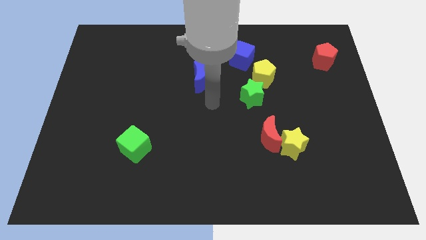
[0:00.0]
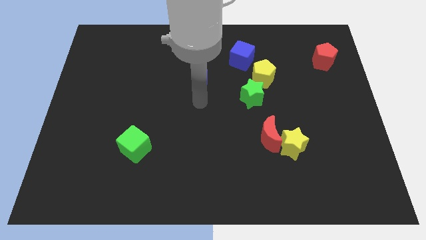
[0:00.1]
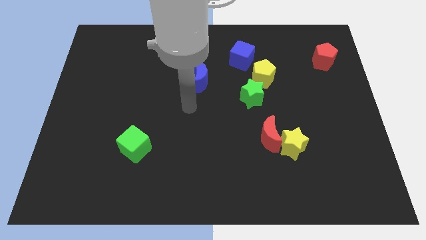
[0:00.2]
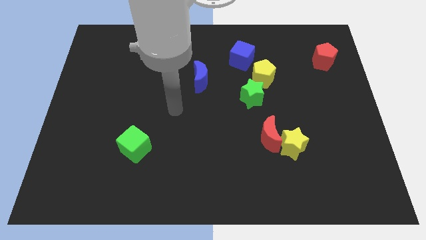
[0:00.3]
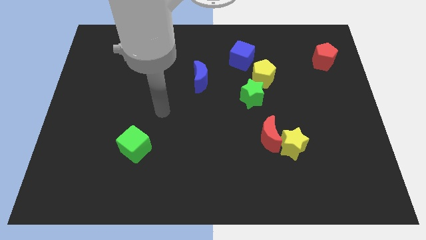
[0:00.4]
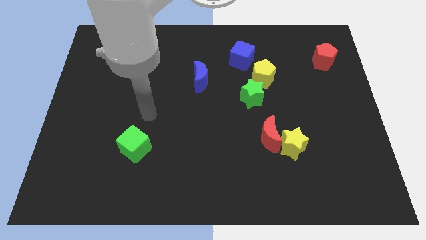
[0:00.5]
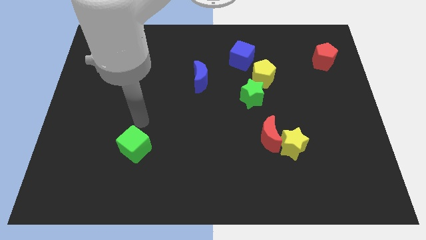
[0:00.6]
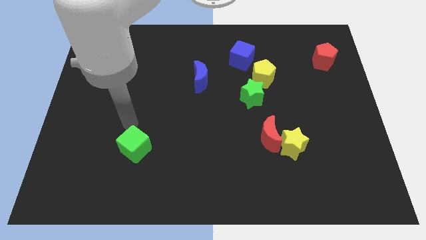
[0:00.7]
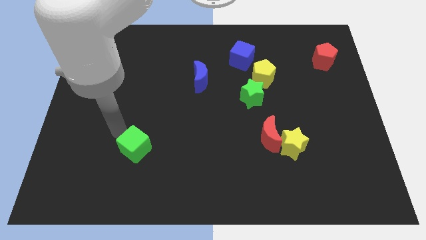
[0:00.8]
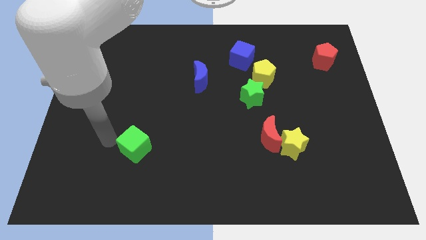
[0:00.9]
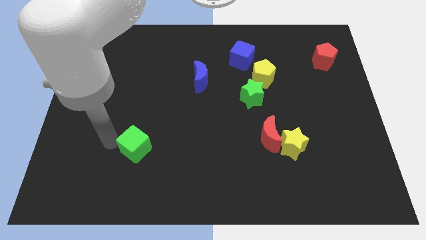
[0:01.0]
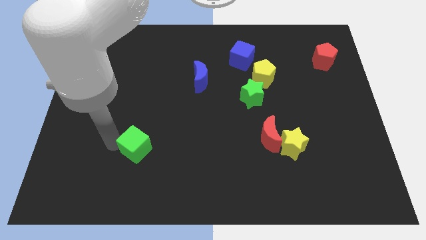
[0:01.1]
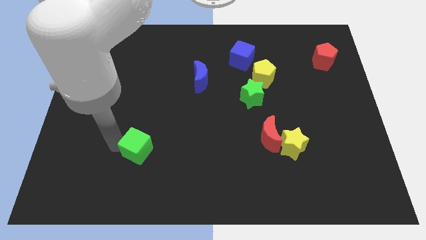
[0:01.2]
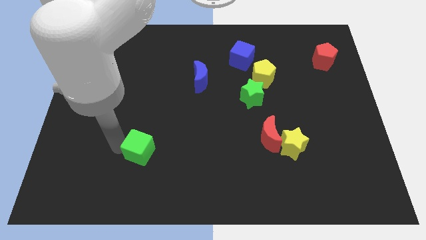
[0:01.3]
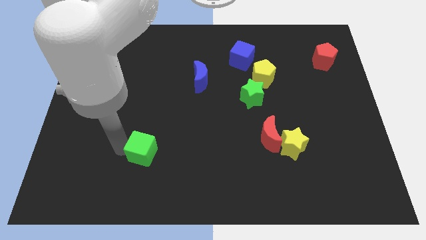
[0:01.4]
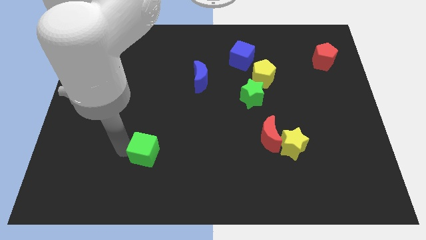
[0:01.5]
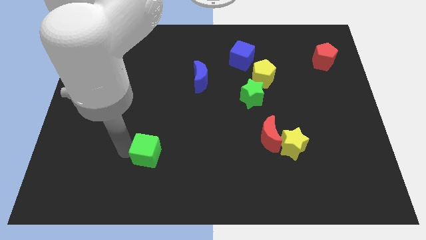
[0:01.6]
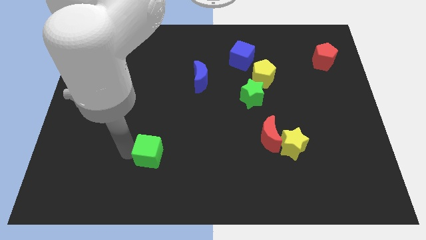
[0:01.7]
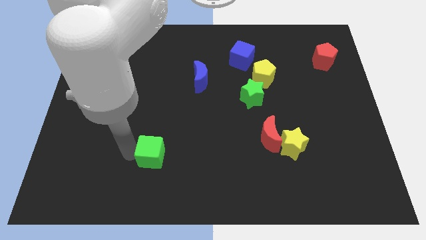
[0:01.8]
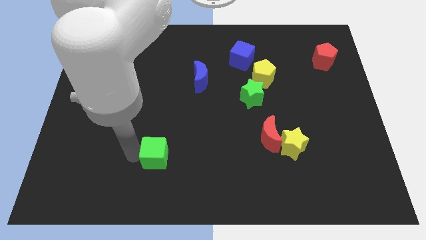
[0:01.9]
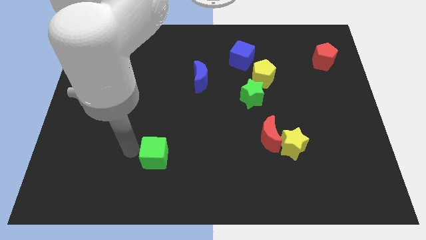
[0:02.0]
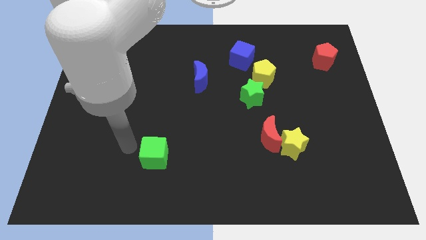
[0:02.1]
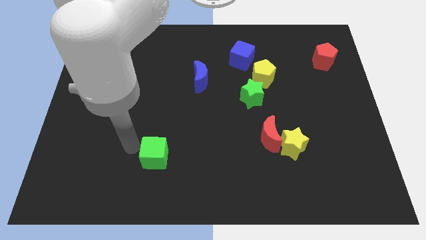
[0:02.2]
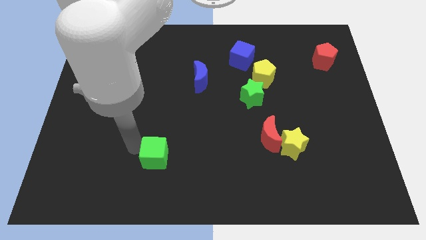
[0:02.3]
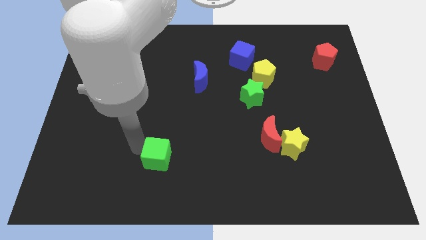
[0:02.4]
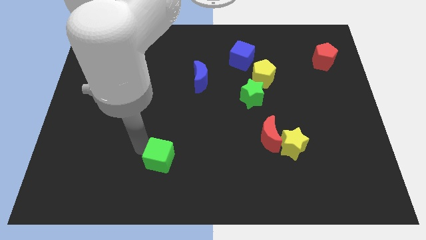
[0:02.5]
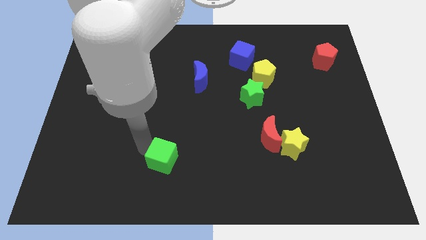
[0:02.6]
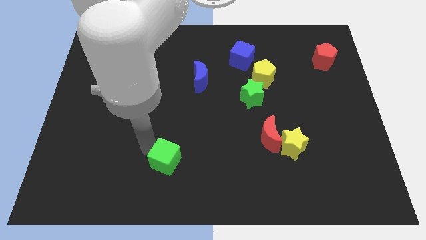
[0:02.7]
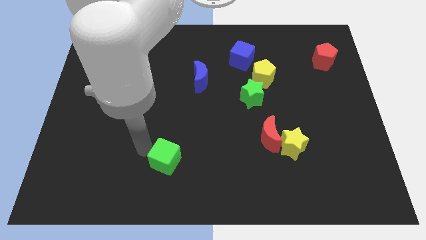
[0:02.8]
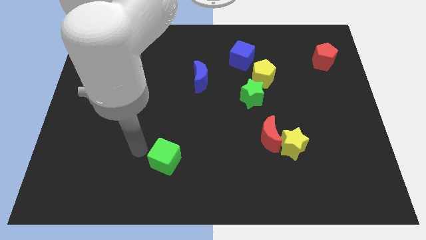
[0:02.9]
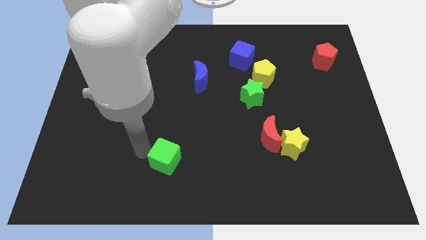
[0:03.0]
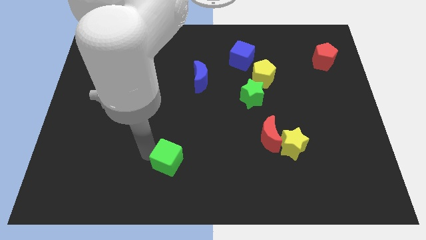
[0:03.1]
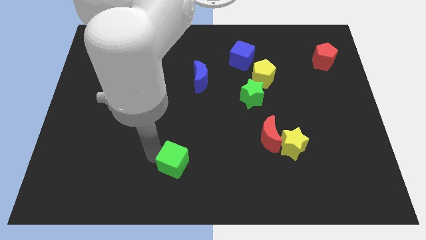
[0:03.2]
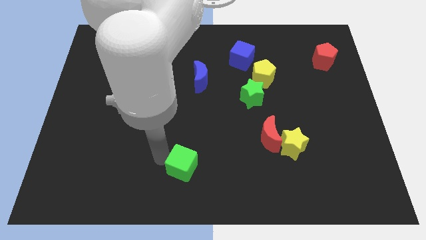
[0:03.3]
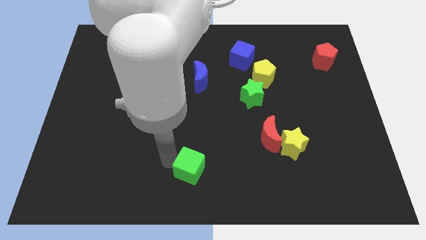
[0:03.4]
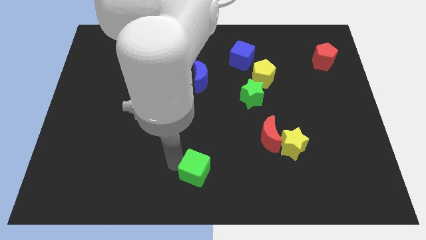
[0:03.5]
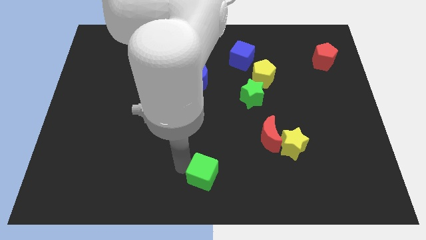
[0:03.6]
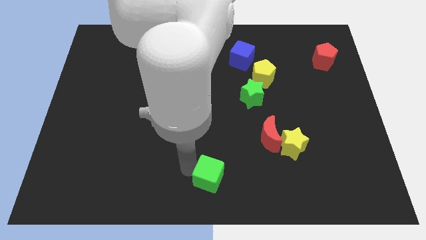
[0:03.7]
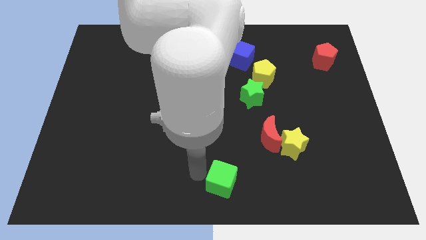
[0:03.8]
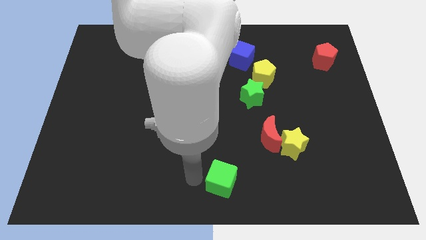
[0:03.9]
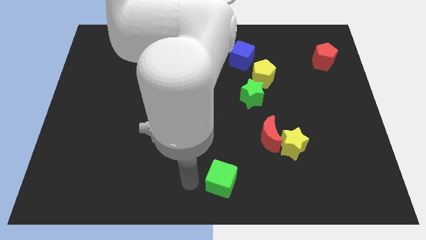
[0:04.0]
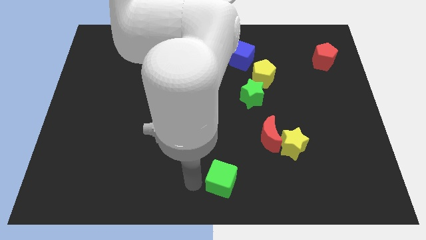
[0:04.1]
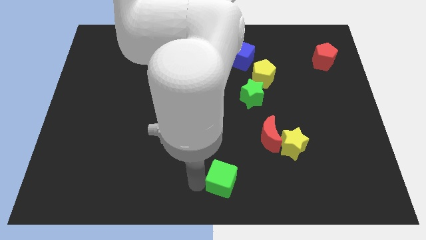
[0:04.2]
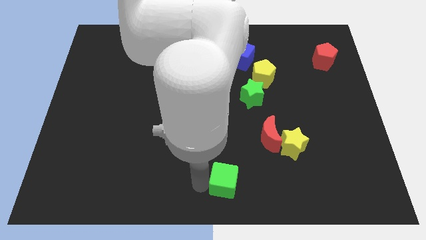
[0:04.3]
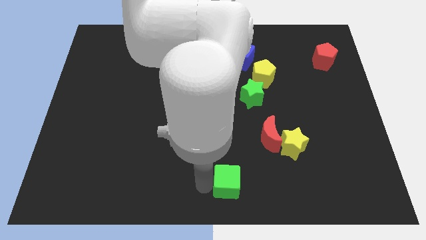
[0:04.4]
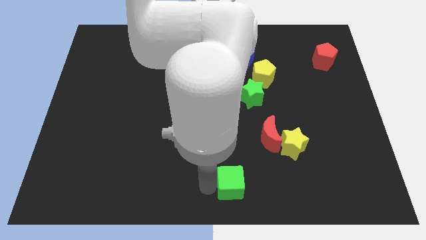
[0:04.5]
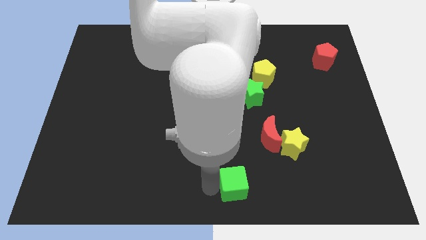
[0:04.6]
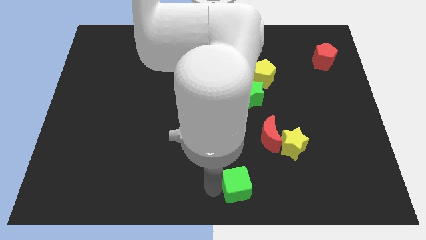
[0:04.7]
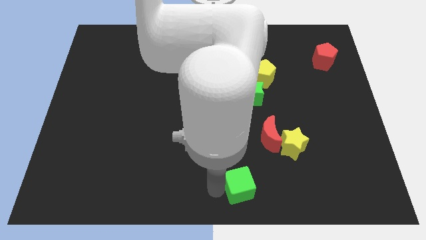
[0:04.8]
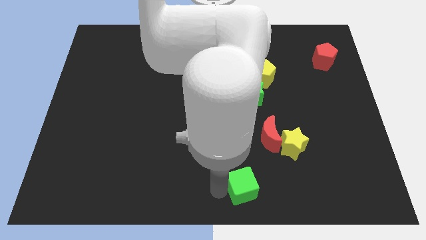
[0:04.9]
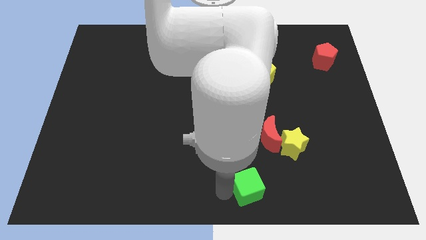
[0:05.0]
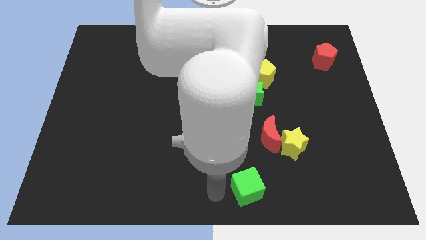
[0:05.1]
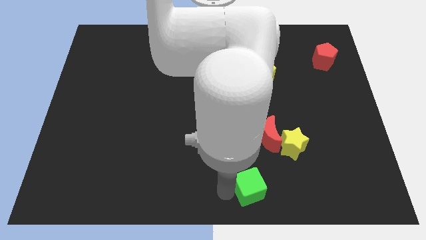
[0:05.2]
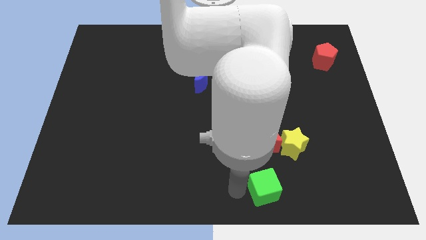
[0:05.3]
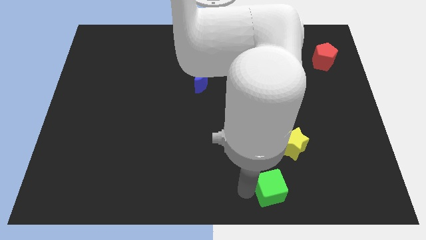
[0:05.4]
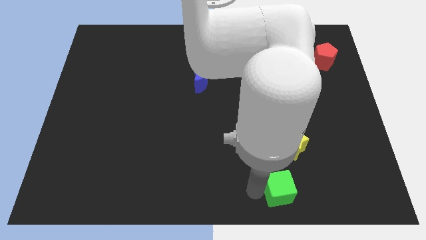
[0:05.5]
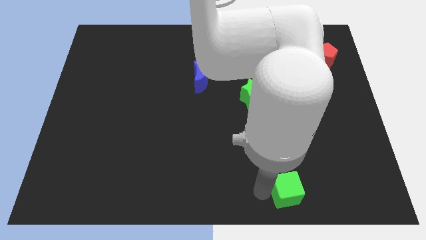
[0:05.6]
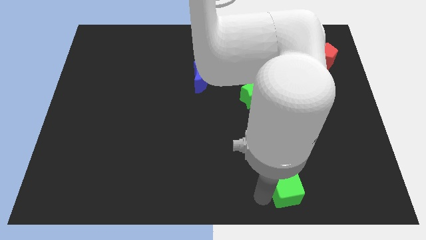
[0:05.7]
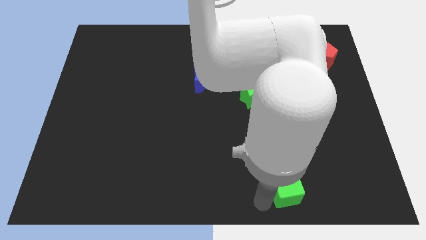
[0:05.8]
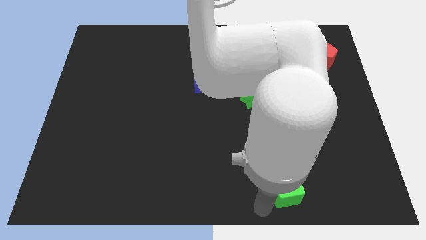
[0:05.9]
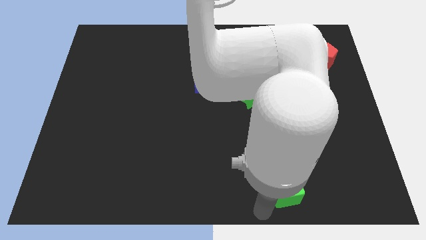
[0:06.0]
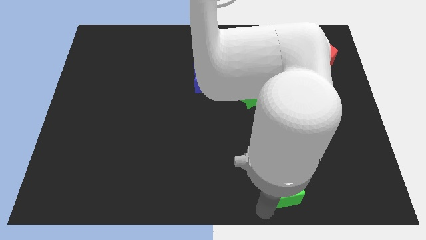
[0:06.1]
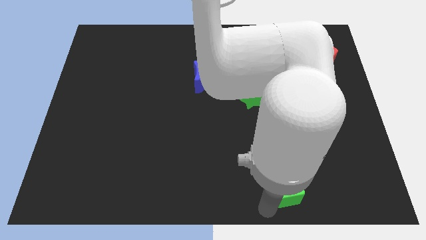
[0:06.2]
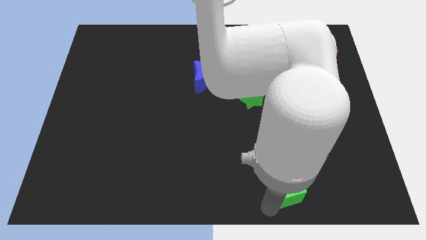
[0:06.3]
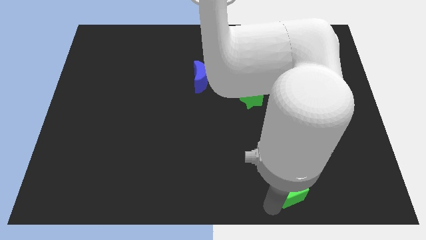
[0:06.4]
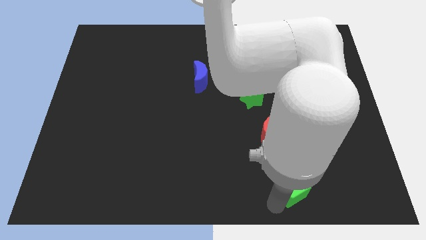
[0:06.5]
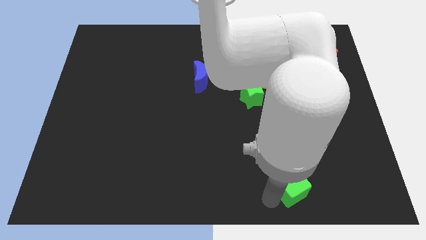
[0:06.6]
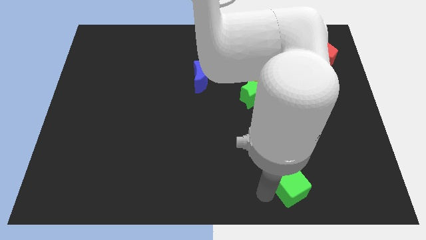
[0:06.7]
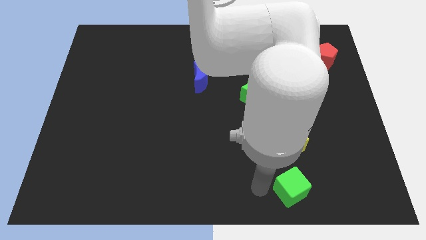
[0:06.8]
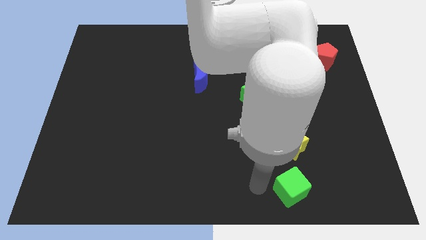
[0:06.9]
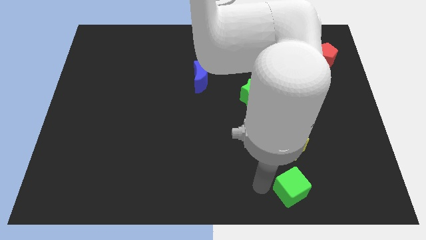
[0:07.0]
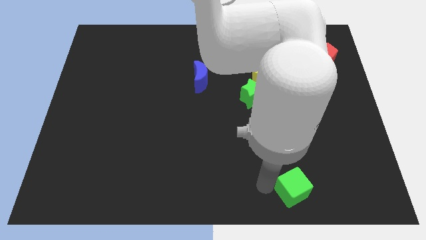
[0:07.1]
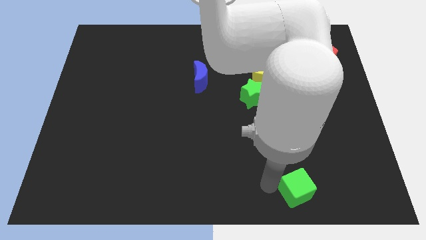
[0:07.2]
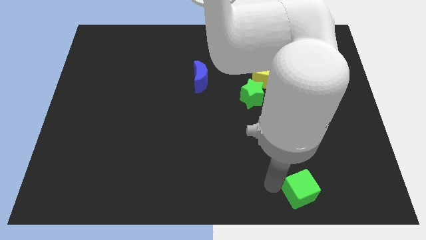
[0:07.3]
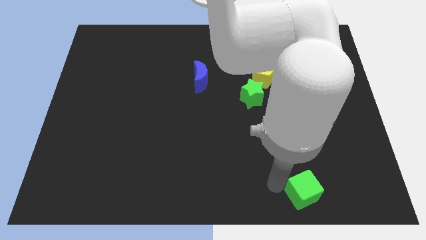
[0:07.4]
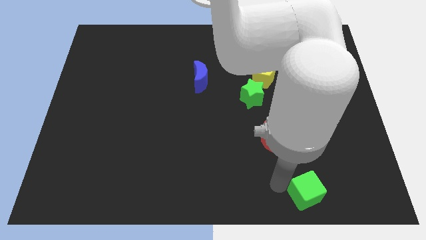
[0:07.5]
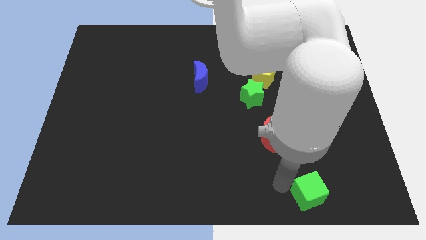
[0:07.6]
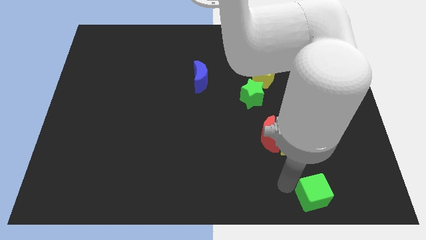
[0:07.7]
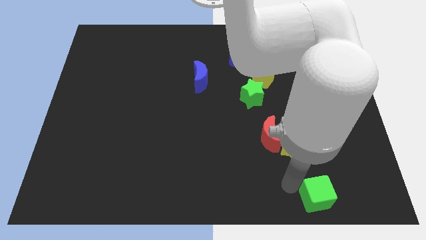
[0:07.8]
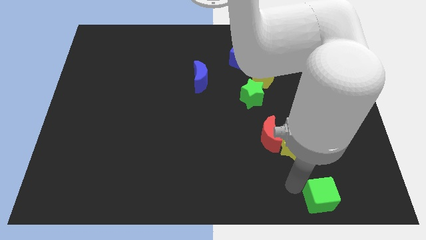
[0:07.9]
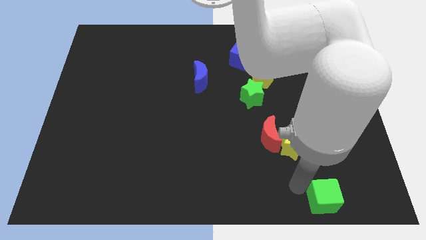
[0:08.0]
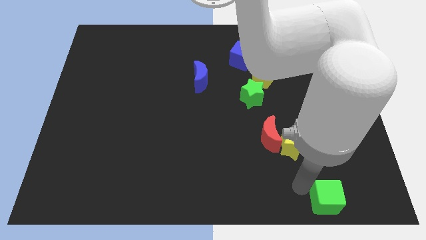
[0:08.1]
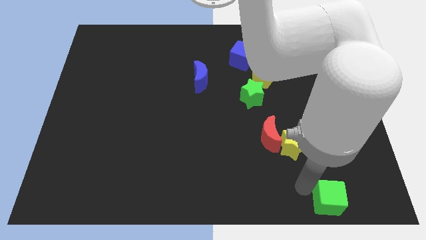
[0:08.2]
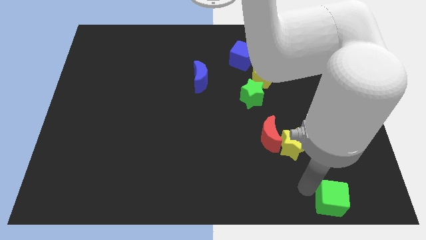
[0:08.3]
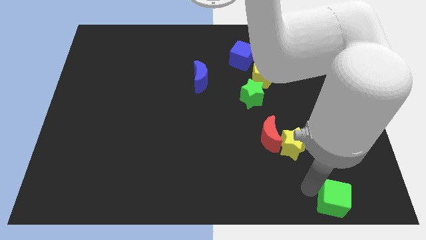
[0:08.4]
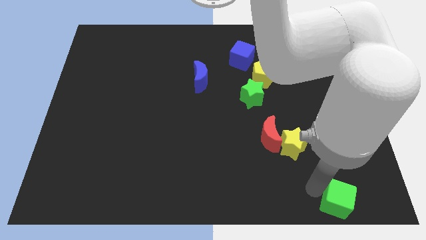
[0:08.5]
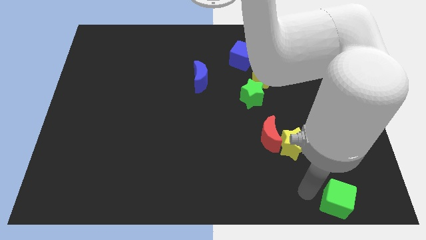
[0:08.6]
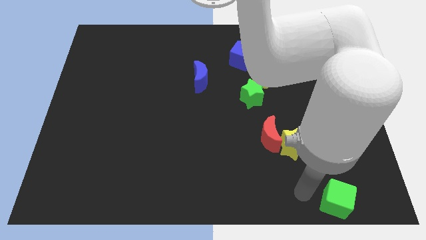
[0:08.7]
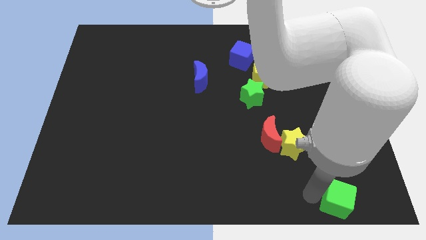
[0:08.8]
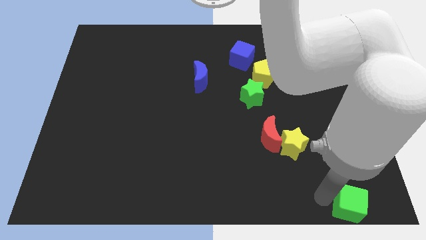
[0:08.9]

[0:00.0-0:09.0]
slide the green cube to the bottom right corner
